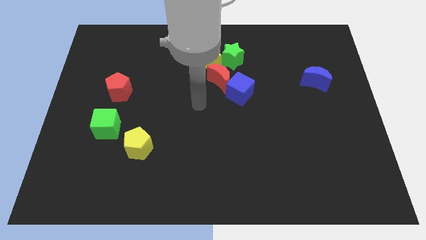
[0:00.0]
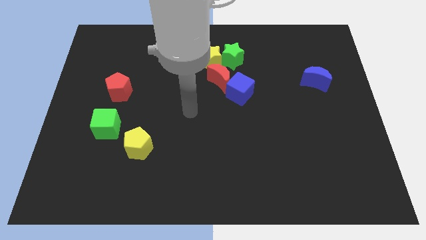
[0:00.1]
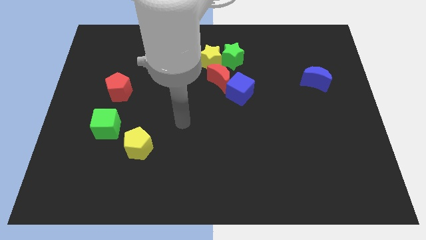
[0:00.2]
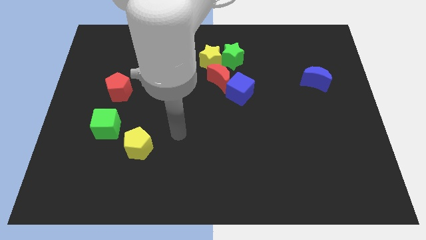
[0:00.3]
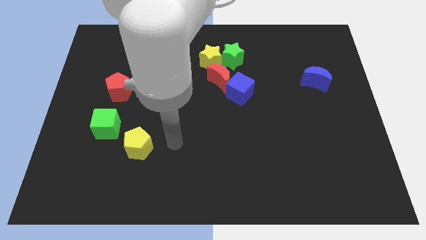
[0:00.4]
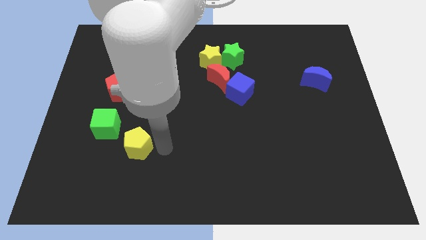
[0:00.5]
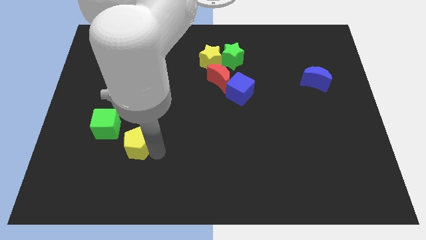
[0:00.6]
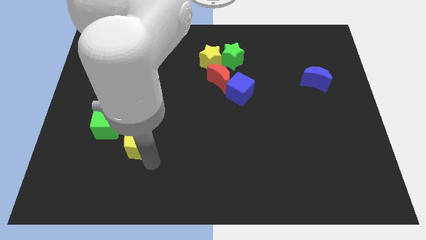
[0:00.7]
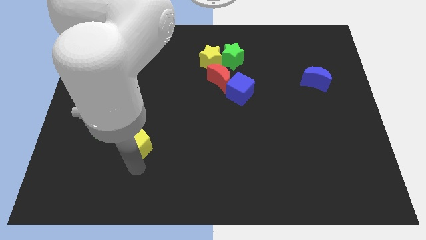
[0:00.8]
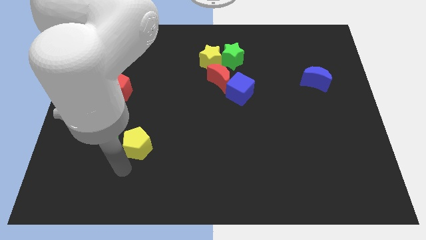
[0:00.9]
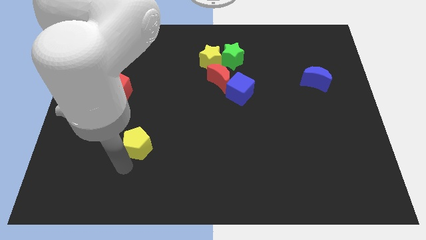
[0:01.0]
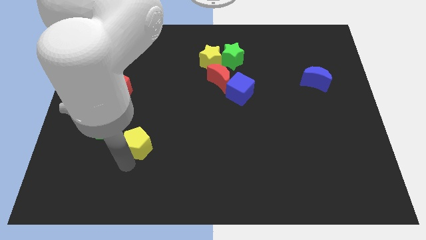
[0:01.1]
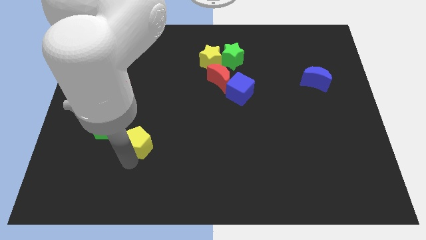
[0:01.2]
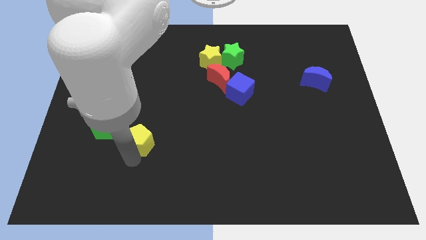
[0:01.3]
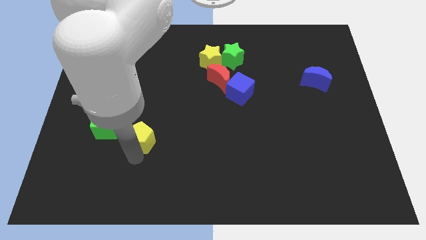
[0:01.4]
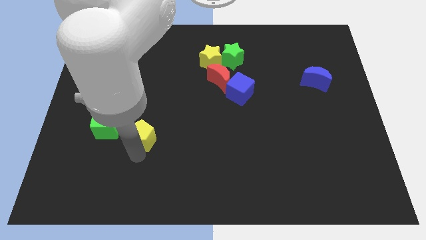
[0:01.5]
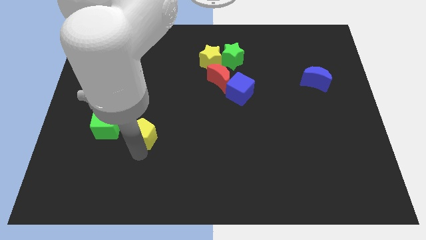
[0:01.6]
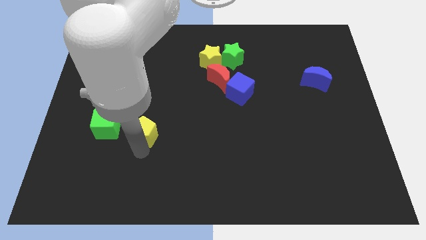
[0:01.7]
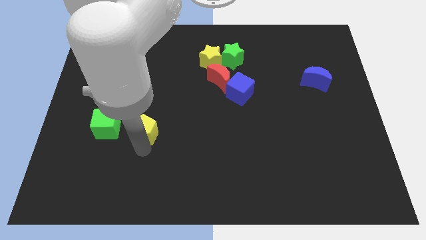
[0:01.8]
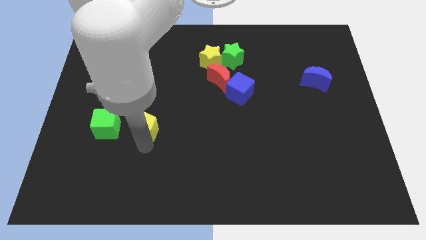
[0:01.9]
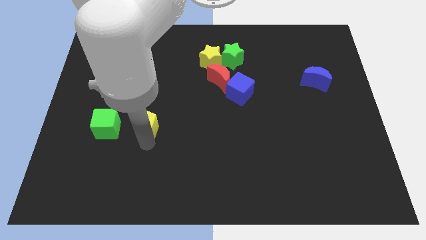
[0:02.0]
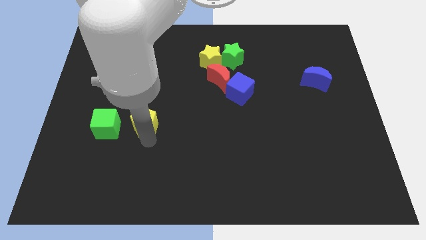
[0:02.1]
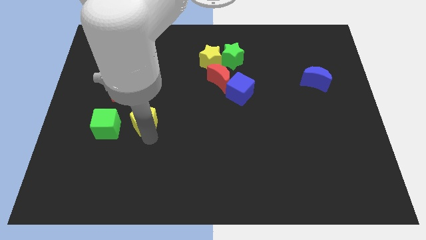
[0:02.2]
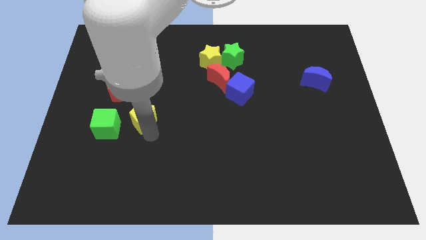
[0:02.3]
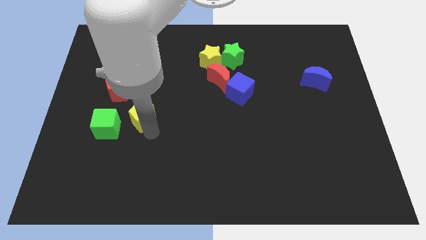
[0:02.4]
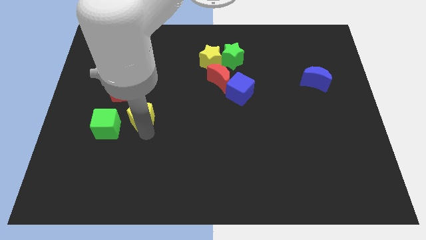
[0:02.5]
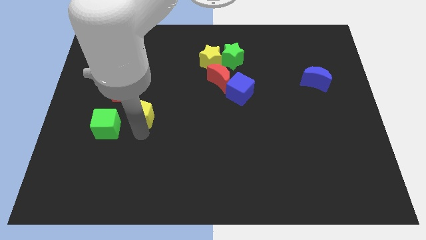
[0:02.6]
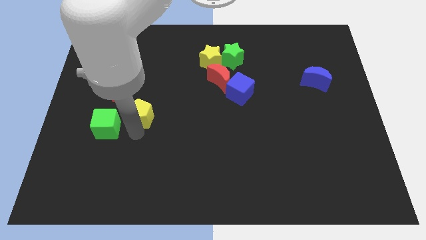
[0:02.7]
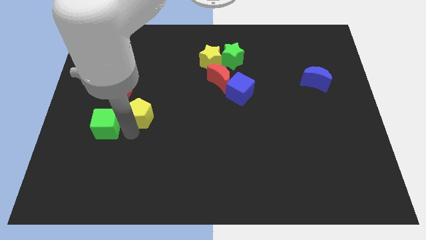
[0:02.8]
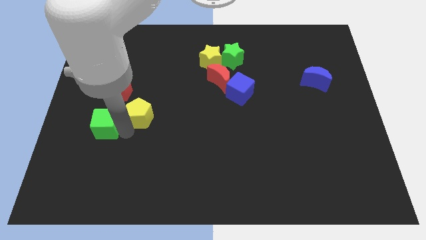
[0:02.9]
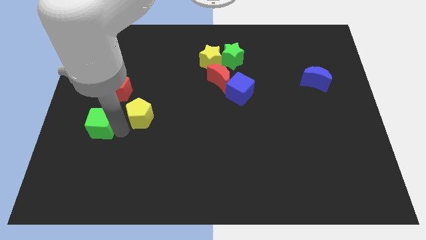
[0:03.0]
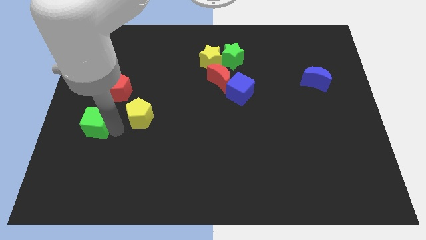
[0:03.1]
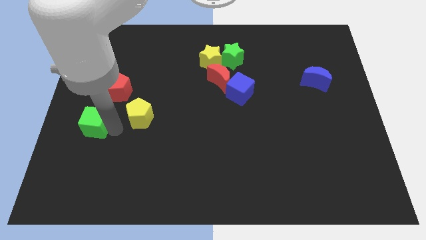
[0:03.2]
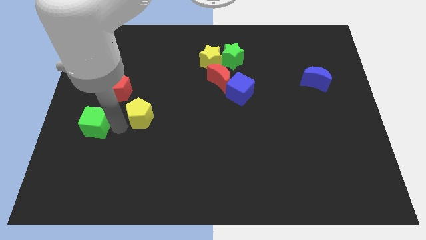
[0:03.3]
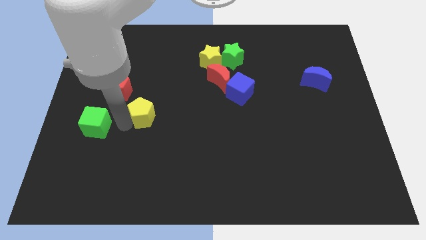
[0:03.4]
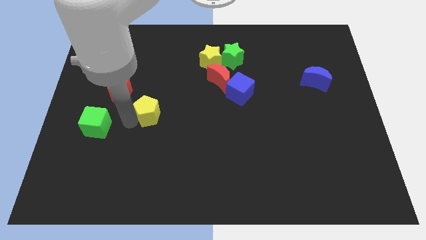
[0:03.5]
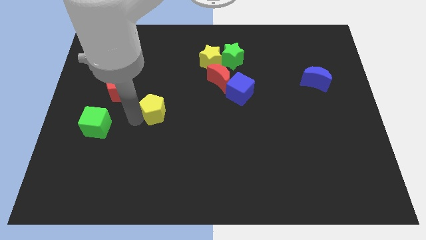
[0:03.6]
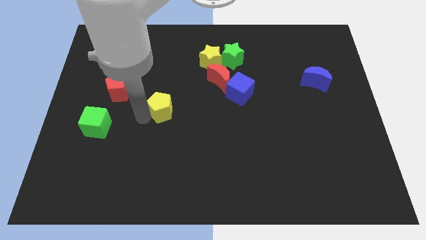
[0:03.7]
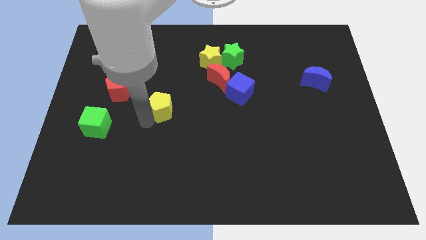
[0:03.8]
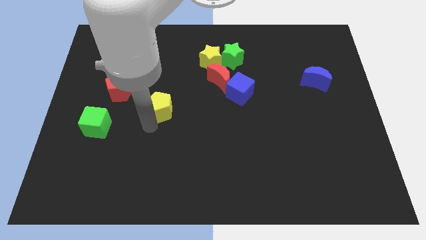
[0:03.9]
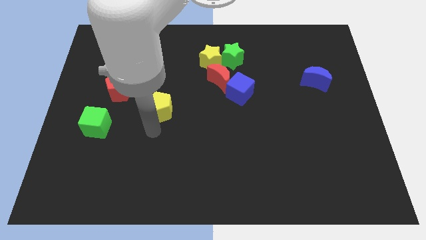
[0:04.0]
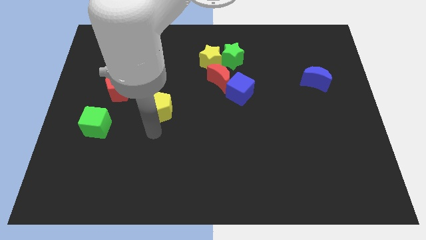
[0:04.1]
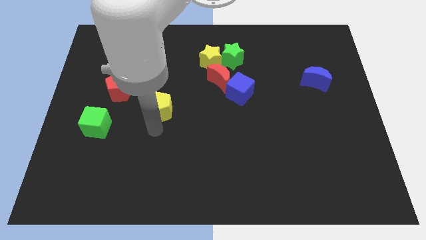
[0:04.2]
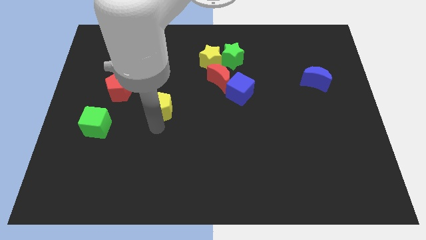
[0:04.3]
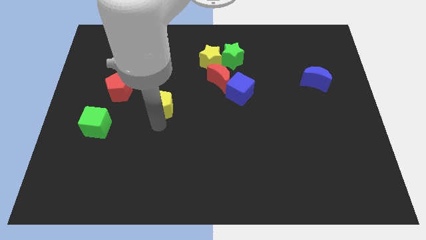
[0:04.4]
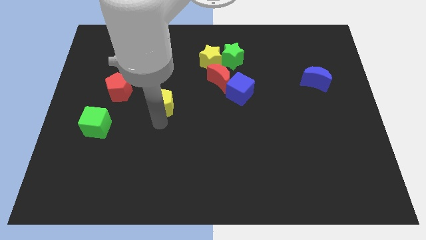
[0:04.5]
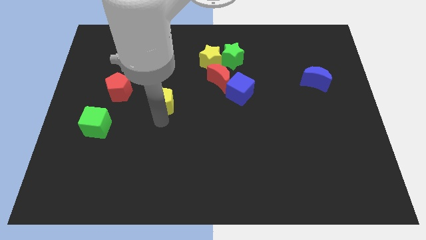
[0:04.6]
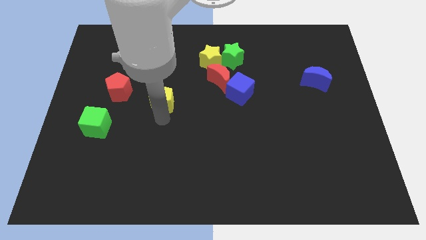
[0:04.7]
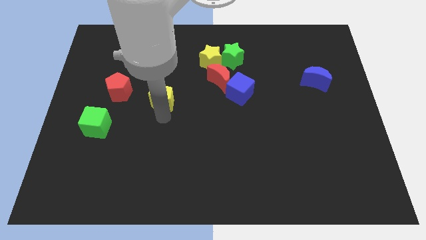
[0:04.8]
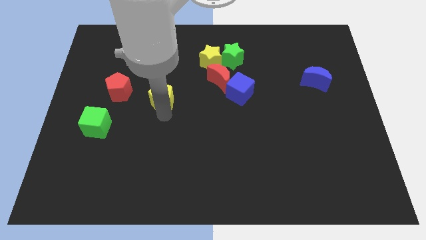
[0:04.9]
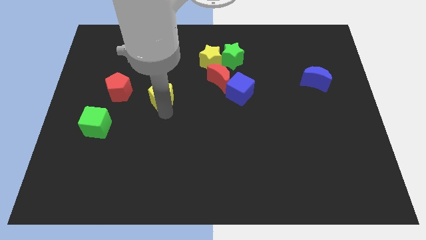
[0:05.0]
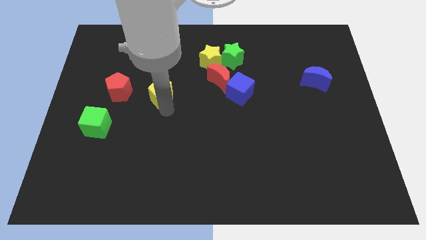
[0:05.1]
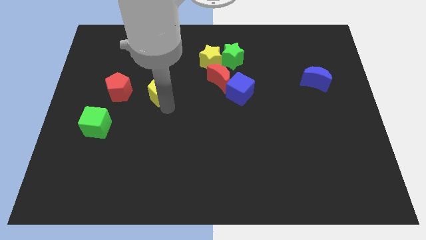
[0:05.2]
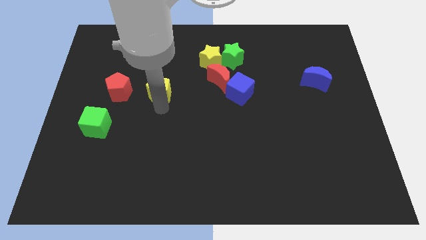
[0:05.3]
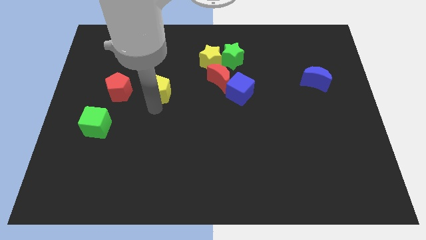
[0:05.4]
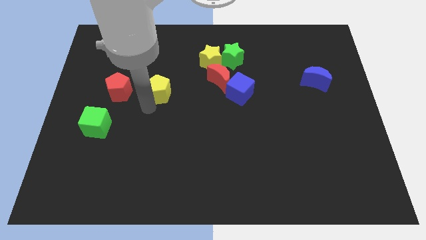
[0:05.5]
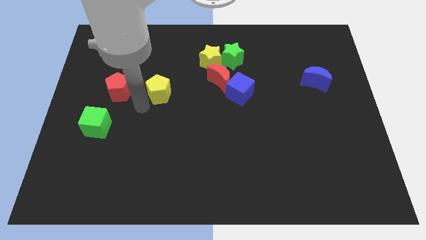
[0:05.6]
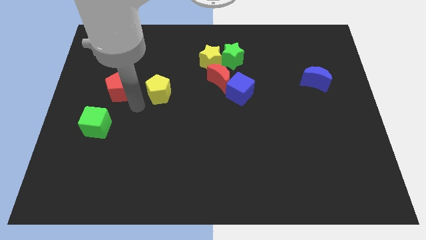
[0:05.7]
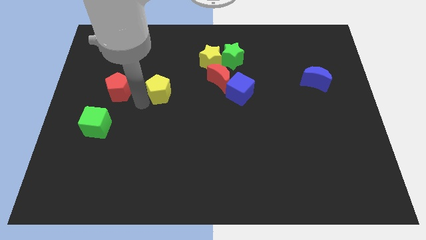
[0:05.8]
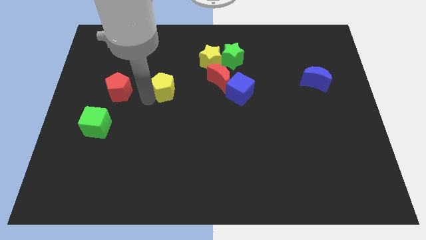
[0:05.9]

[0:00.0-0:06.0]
slide the yellow pentagon to the left of the red moon
